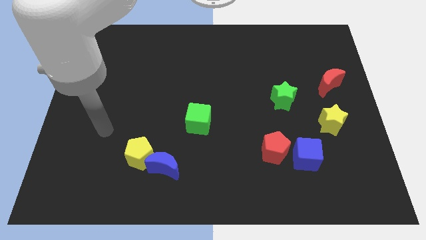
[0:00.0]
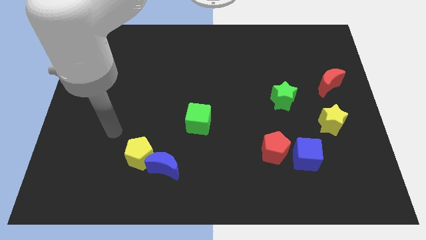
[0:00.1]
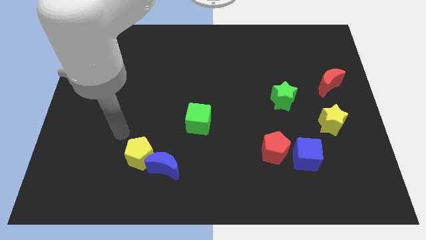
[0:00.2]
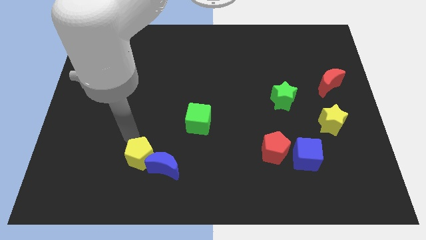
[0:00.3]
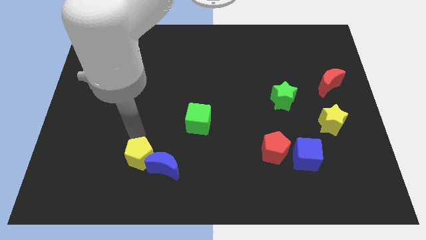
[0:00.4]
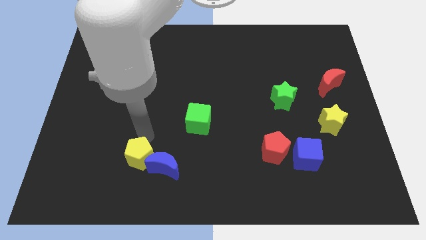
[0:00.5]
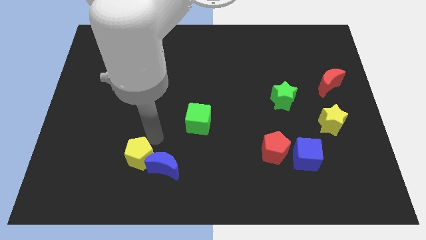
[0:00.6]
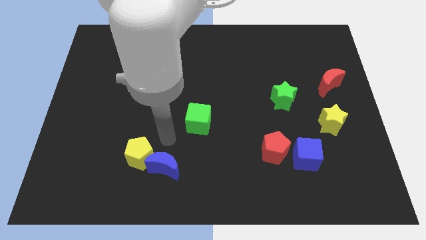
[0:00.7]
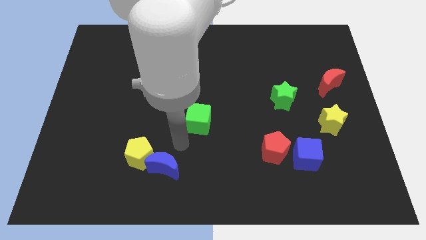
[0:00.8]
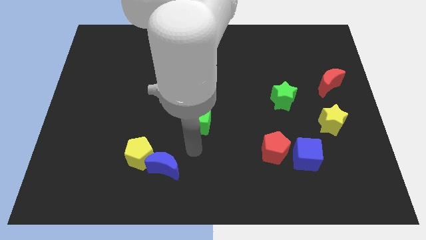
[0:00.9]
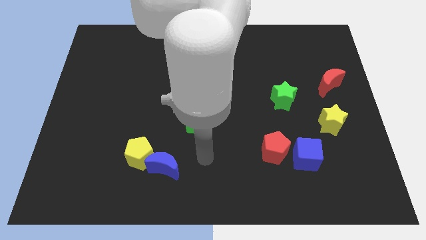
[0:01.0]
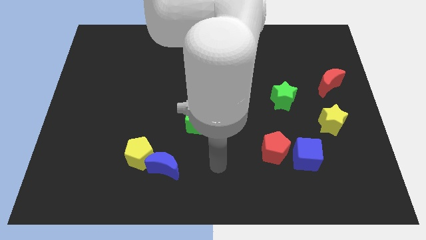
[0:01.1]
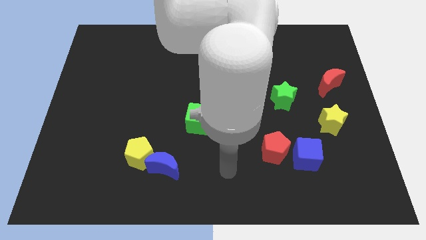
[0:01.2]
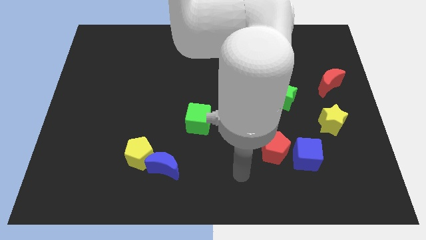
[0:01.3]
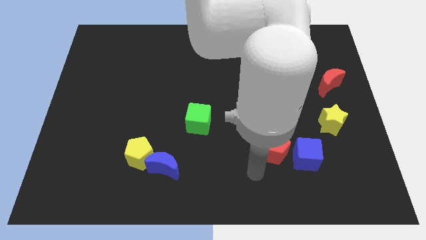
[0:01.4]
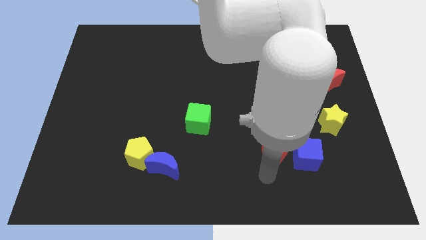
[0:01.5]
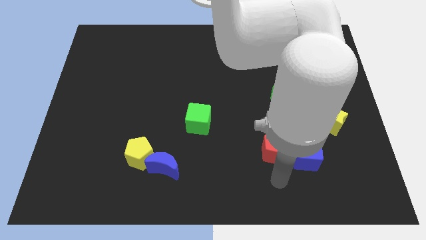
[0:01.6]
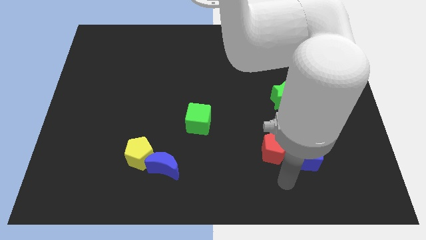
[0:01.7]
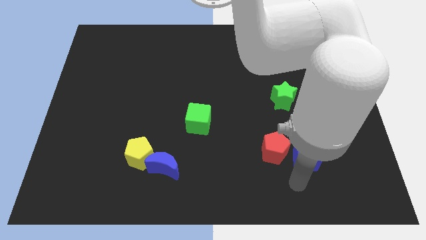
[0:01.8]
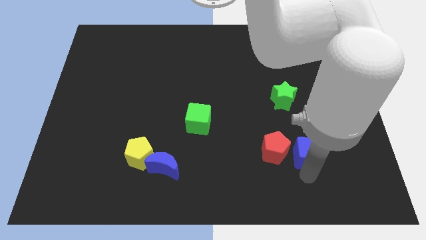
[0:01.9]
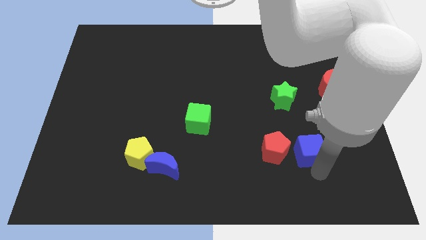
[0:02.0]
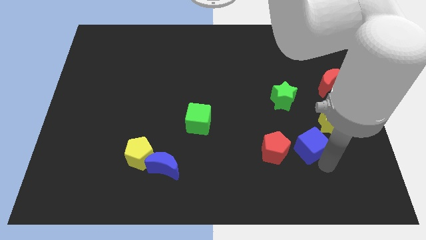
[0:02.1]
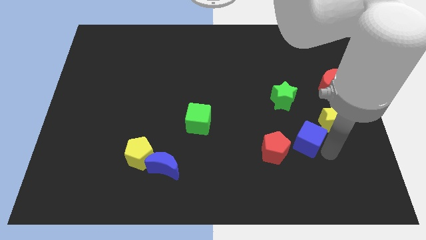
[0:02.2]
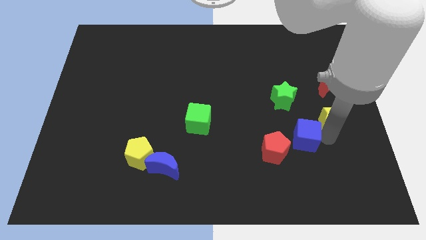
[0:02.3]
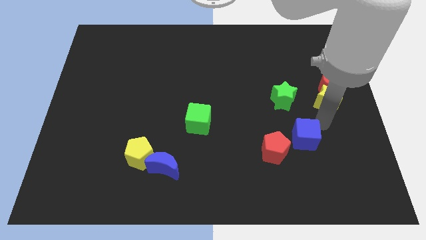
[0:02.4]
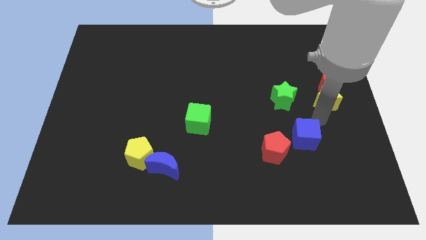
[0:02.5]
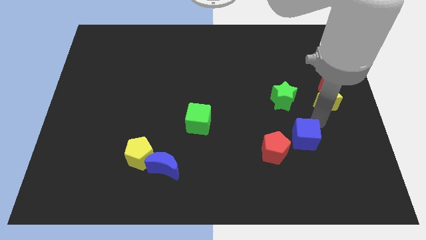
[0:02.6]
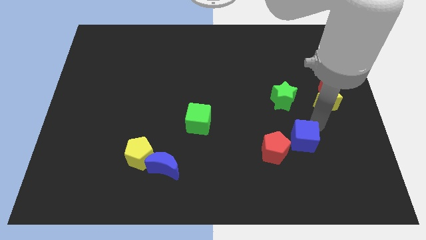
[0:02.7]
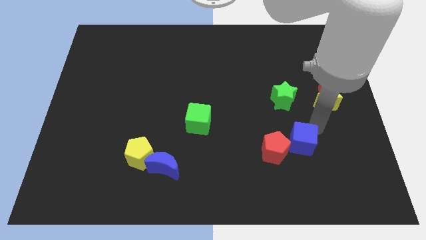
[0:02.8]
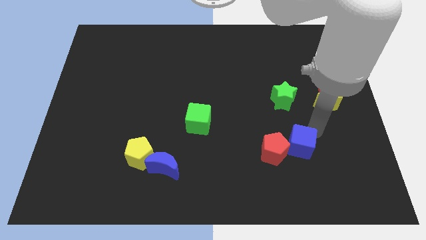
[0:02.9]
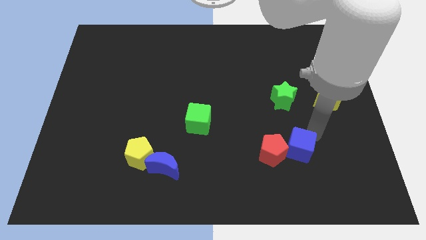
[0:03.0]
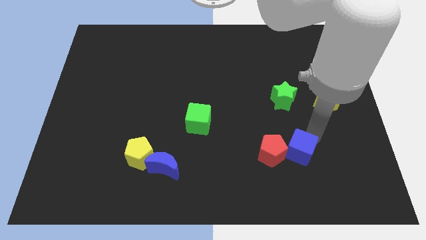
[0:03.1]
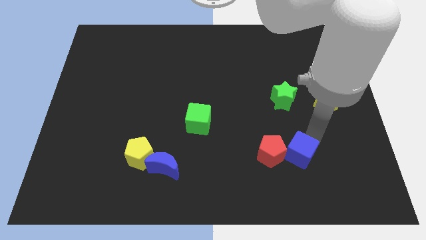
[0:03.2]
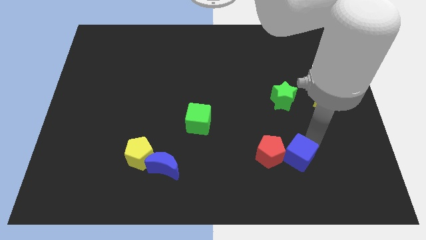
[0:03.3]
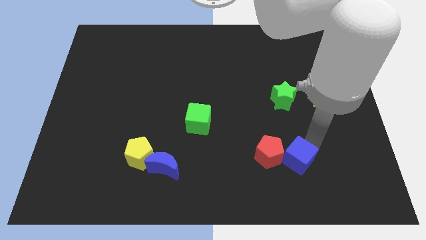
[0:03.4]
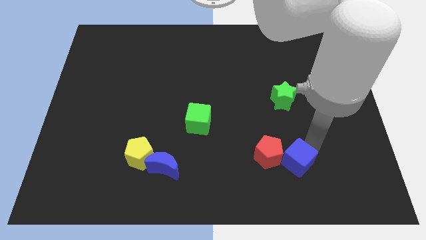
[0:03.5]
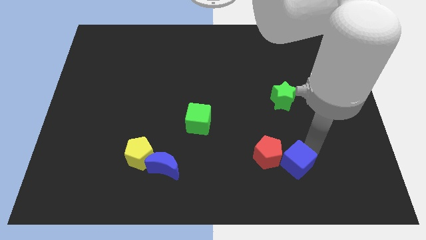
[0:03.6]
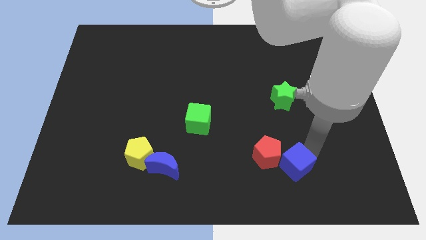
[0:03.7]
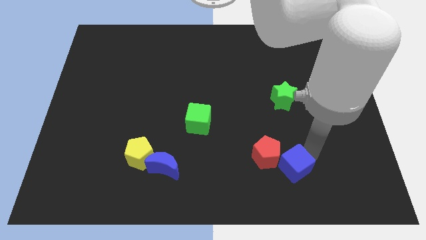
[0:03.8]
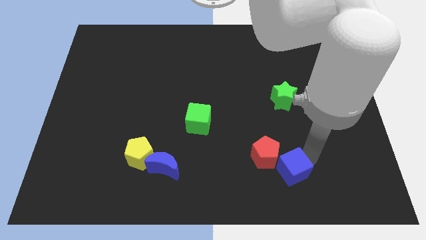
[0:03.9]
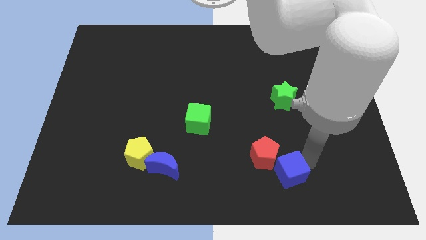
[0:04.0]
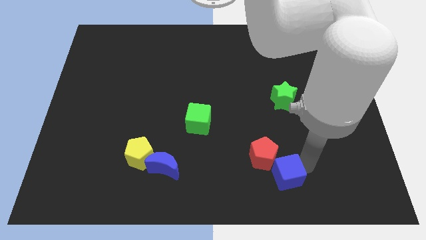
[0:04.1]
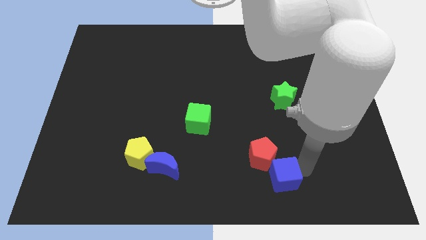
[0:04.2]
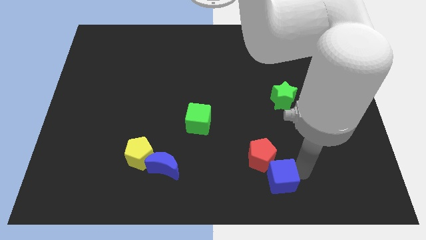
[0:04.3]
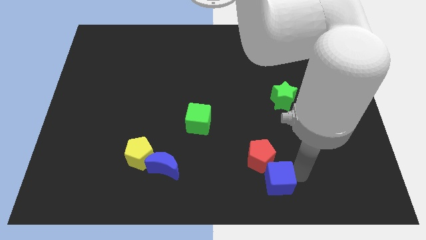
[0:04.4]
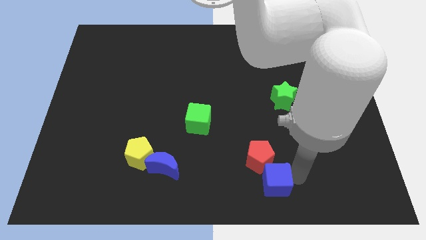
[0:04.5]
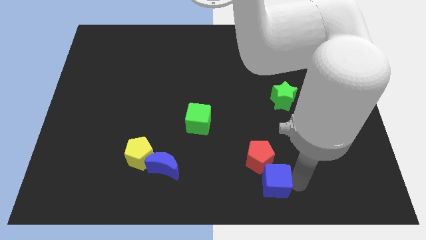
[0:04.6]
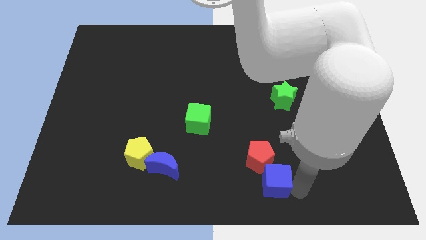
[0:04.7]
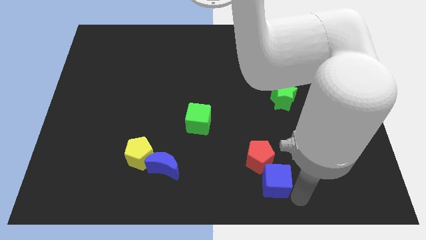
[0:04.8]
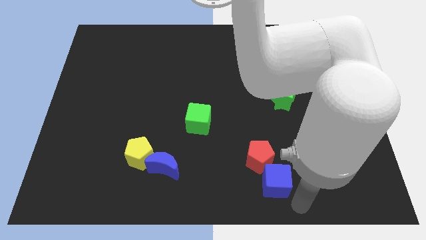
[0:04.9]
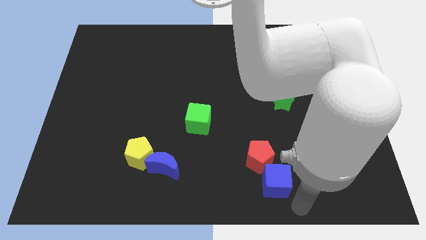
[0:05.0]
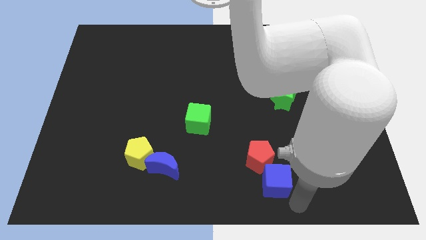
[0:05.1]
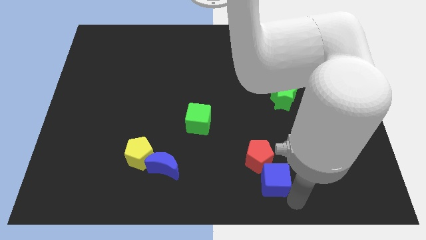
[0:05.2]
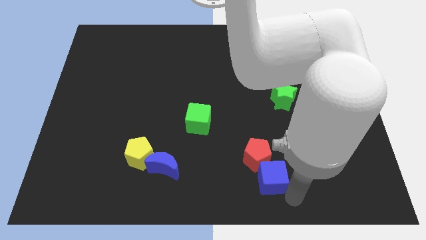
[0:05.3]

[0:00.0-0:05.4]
slightly slide the blue cube to the left

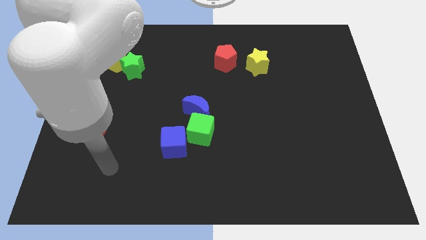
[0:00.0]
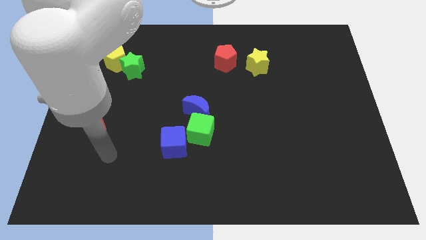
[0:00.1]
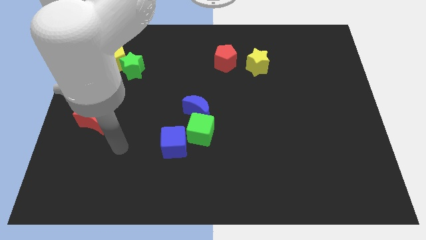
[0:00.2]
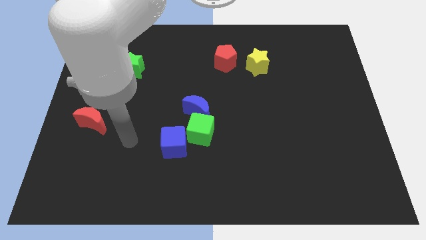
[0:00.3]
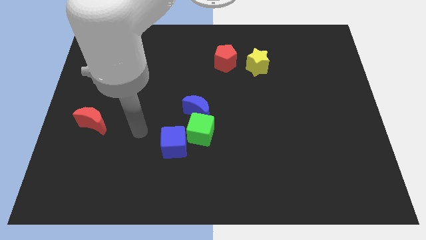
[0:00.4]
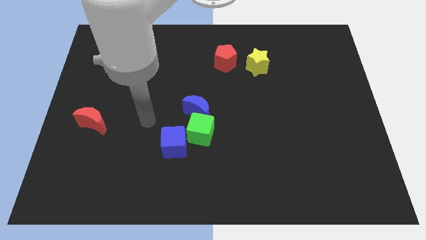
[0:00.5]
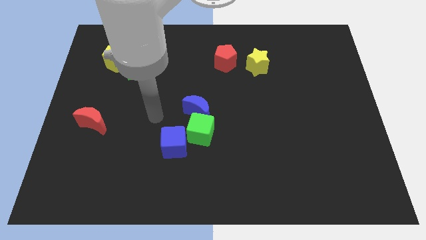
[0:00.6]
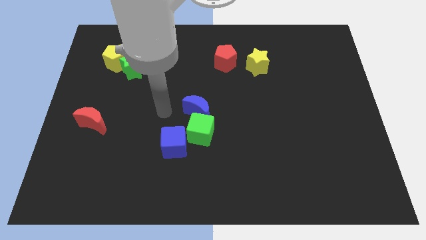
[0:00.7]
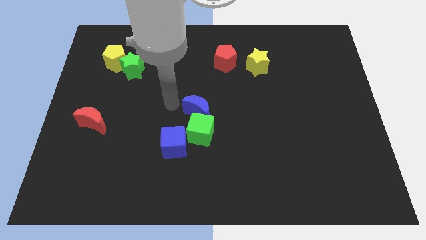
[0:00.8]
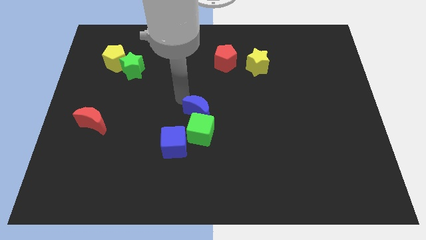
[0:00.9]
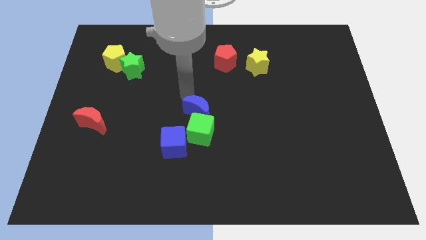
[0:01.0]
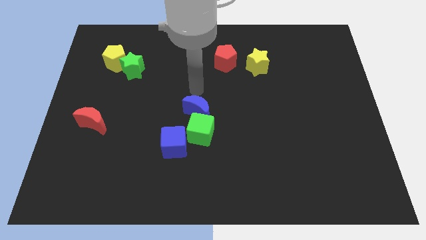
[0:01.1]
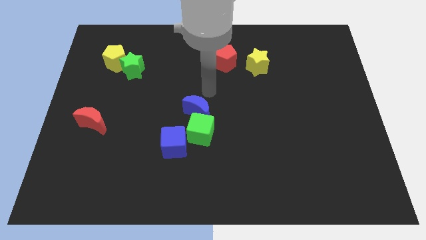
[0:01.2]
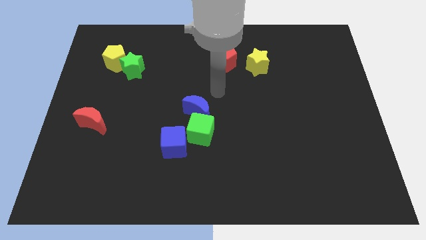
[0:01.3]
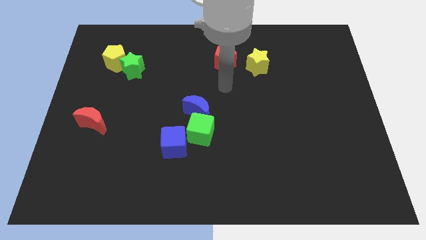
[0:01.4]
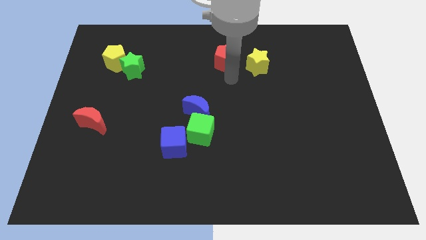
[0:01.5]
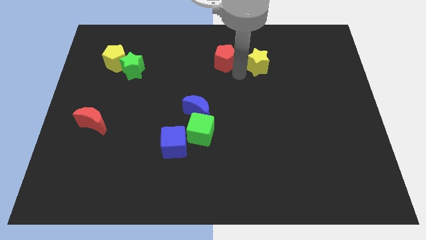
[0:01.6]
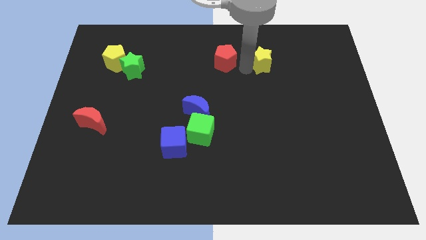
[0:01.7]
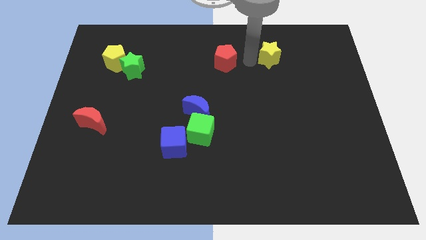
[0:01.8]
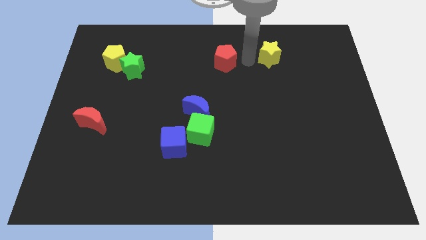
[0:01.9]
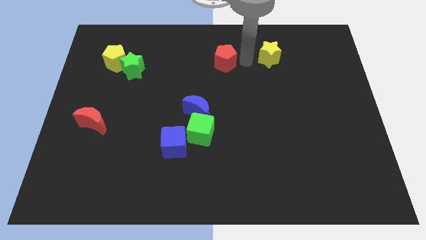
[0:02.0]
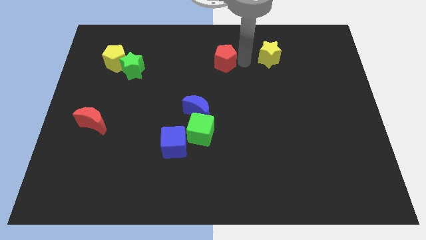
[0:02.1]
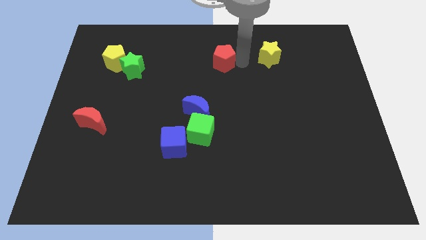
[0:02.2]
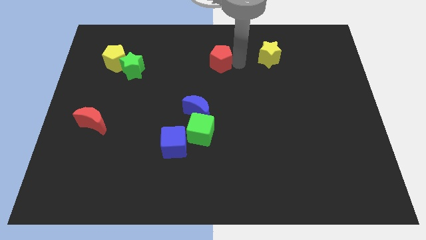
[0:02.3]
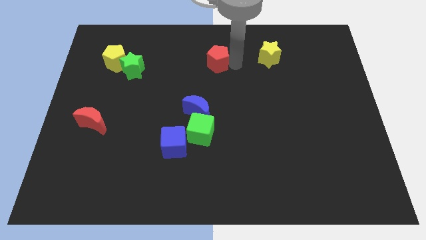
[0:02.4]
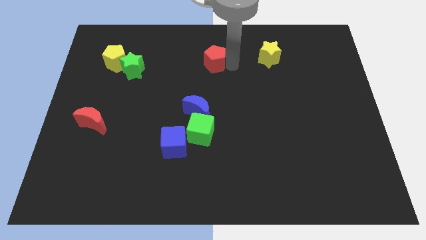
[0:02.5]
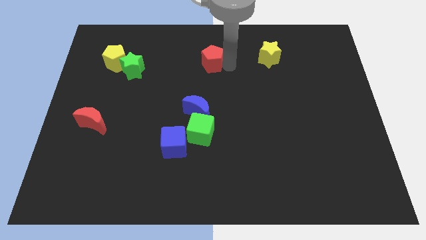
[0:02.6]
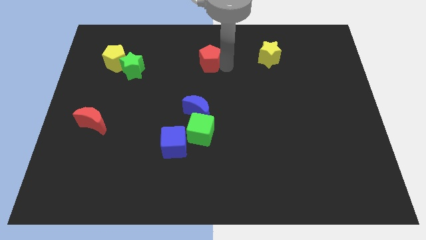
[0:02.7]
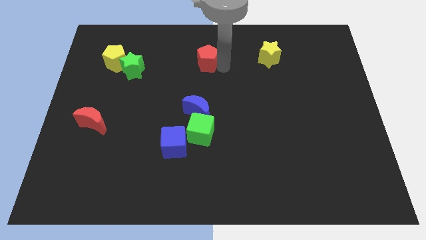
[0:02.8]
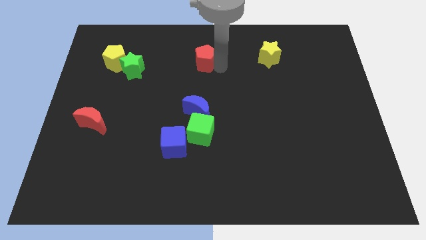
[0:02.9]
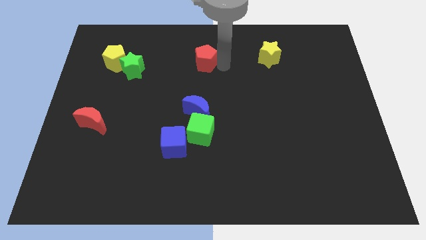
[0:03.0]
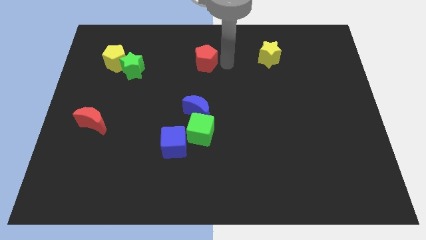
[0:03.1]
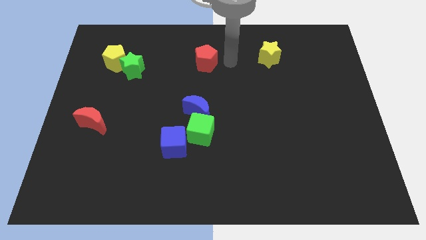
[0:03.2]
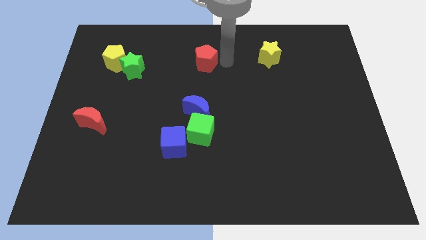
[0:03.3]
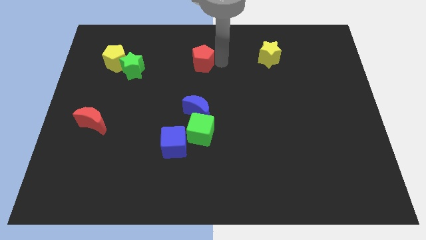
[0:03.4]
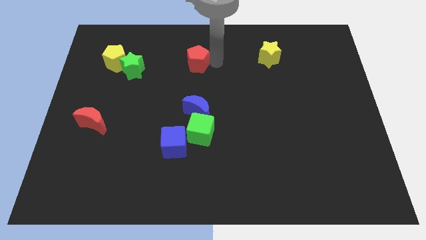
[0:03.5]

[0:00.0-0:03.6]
push the red pentagon left a little bit
